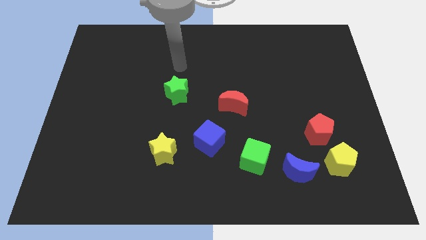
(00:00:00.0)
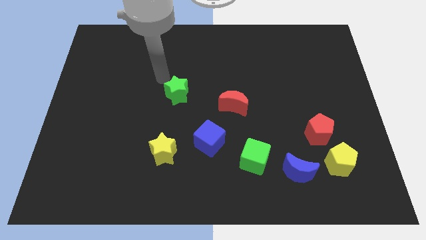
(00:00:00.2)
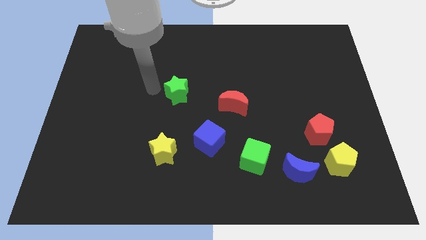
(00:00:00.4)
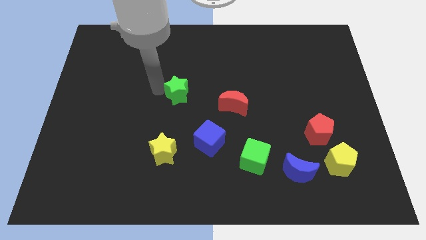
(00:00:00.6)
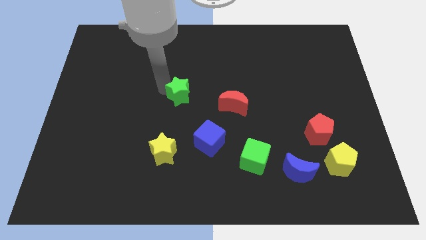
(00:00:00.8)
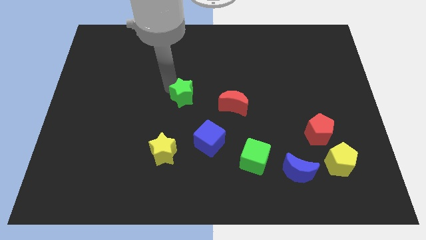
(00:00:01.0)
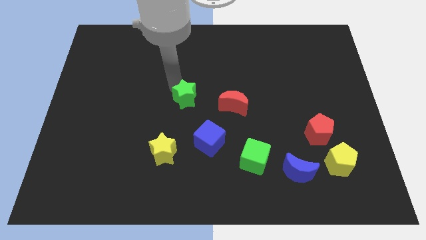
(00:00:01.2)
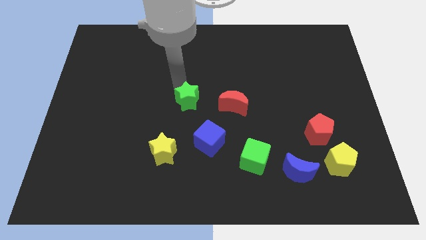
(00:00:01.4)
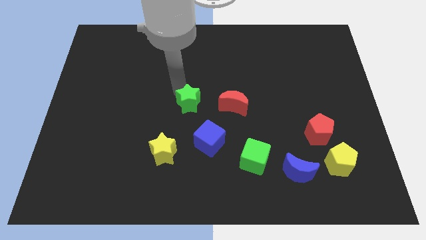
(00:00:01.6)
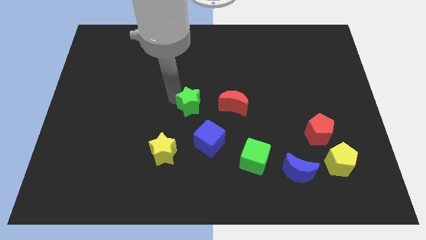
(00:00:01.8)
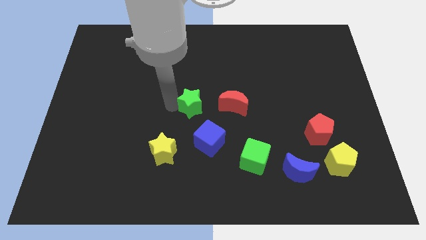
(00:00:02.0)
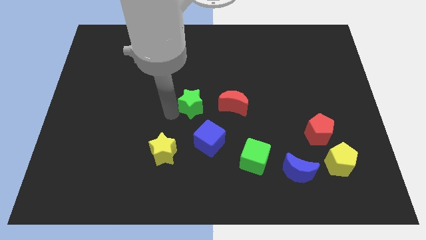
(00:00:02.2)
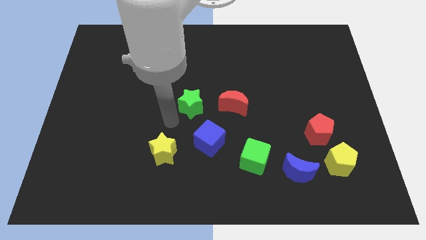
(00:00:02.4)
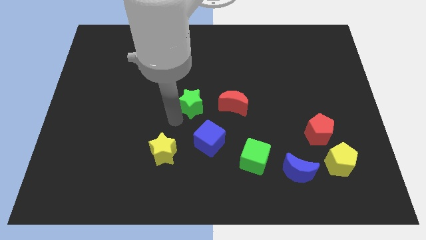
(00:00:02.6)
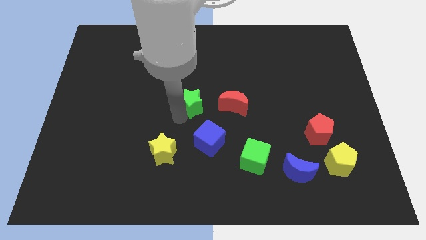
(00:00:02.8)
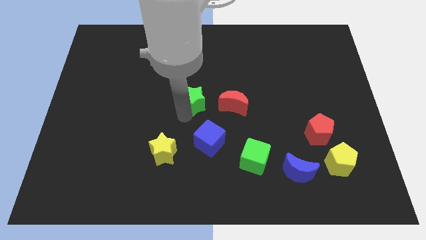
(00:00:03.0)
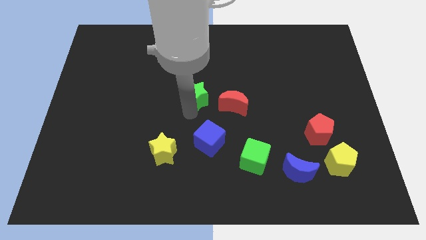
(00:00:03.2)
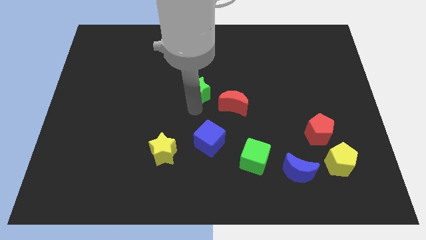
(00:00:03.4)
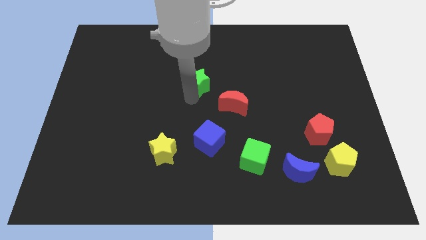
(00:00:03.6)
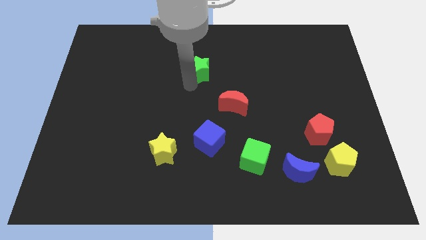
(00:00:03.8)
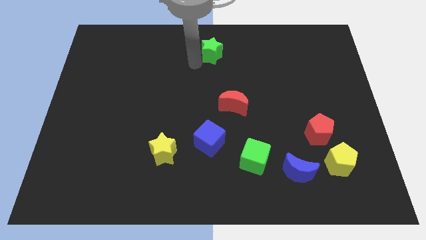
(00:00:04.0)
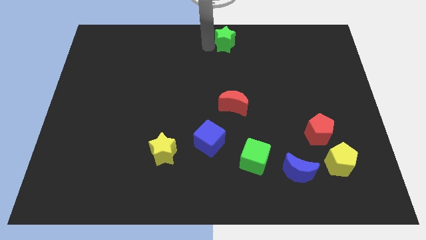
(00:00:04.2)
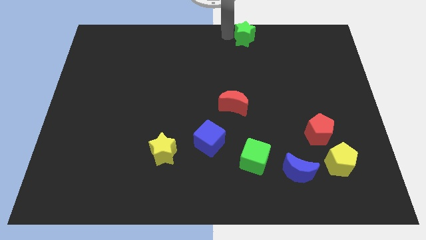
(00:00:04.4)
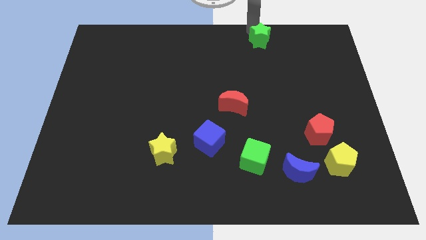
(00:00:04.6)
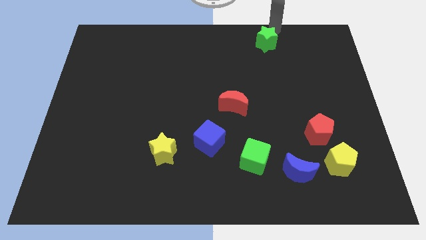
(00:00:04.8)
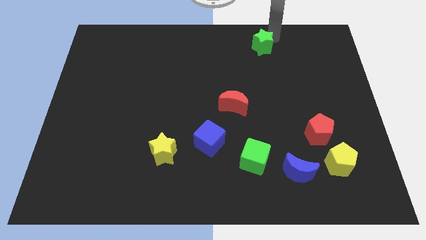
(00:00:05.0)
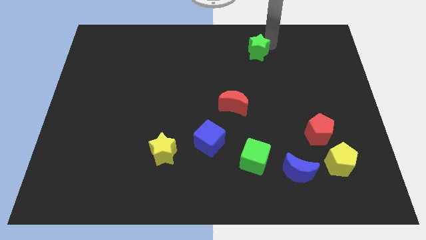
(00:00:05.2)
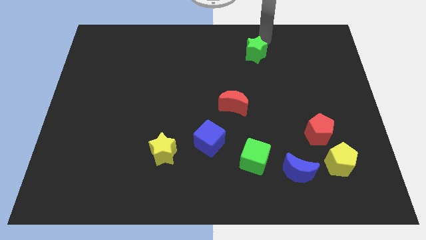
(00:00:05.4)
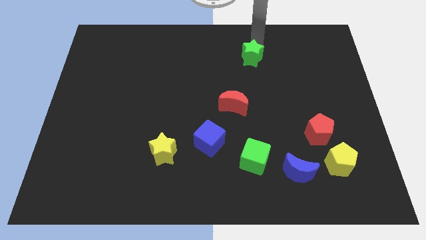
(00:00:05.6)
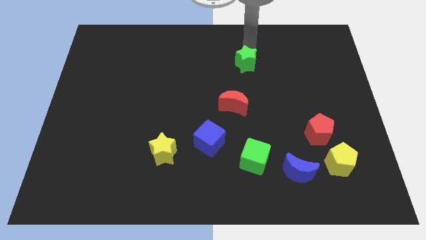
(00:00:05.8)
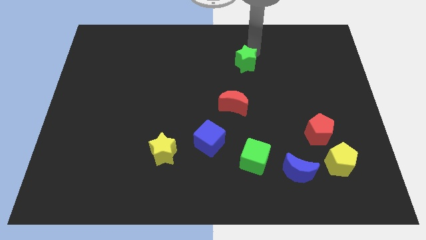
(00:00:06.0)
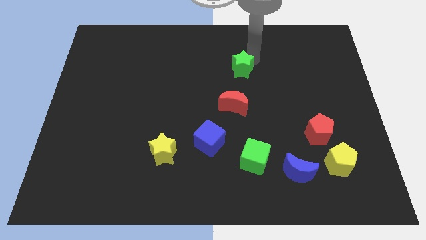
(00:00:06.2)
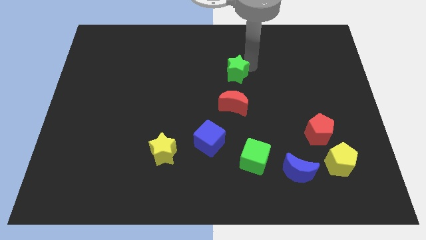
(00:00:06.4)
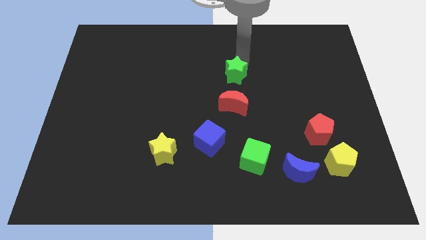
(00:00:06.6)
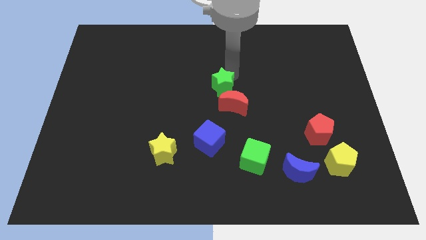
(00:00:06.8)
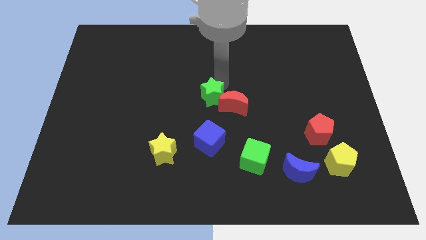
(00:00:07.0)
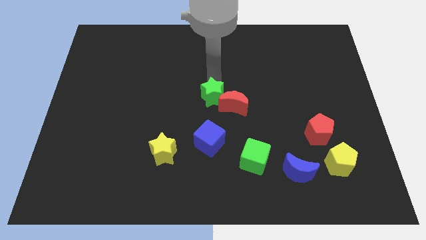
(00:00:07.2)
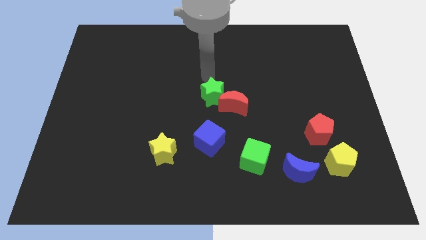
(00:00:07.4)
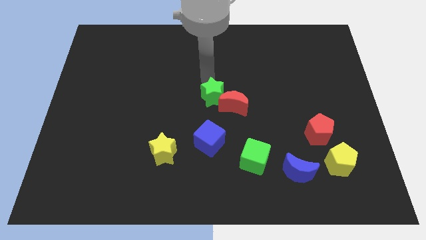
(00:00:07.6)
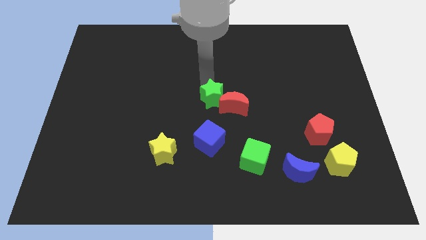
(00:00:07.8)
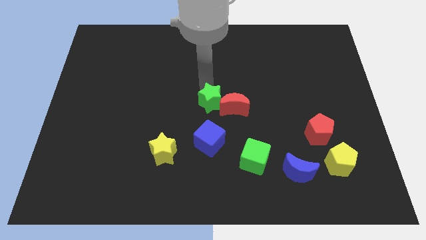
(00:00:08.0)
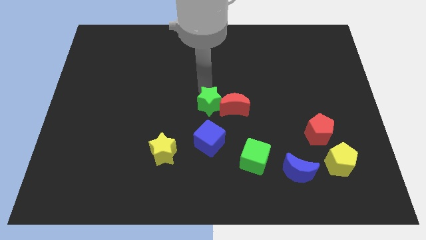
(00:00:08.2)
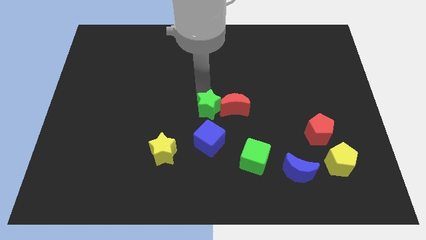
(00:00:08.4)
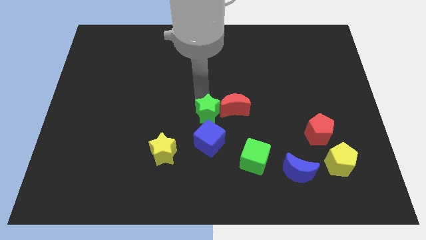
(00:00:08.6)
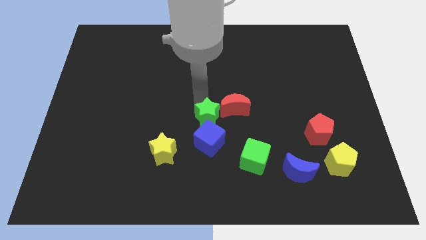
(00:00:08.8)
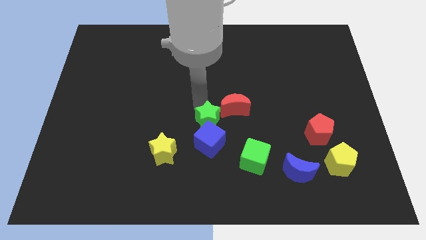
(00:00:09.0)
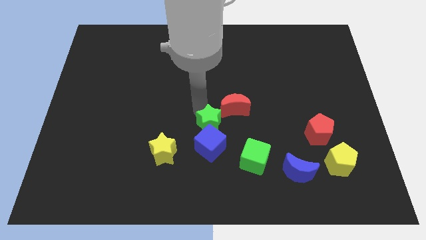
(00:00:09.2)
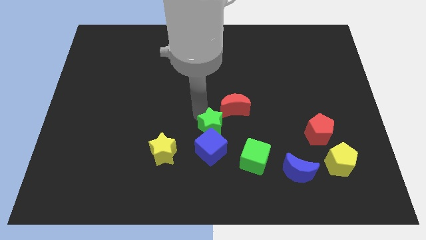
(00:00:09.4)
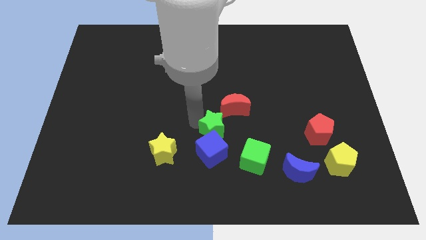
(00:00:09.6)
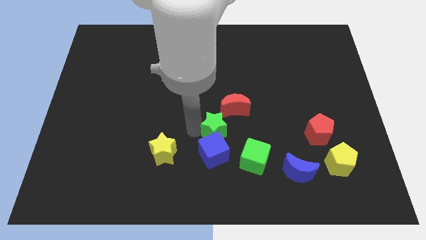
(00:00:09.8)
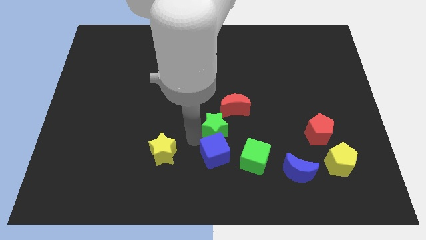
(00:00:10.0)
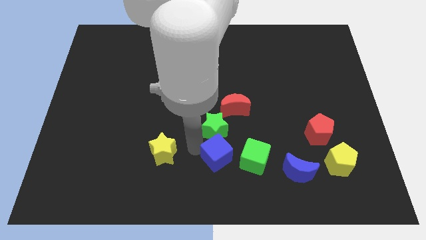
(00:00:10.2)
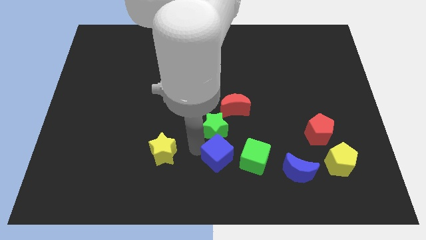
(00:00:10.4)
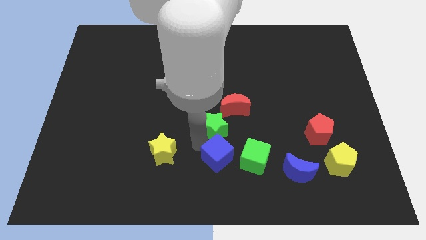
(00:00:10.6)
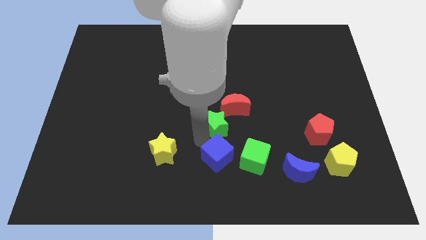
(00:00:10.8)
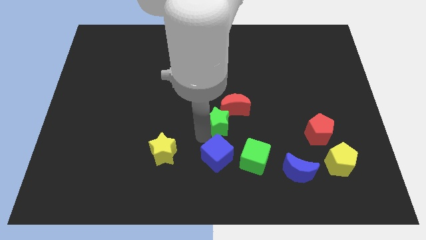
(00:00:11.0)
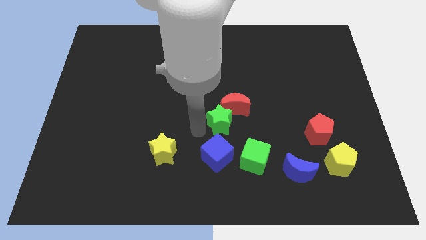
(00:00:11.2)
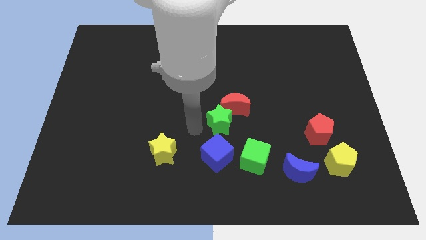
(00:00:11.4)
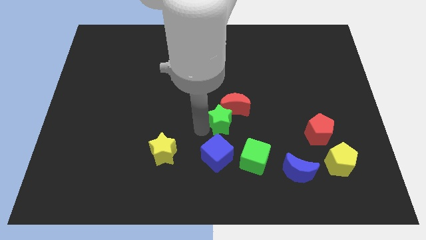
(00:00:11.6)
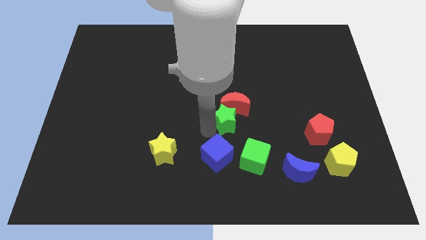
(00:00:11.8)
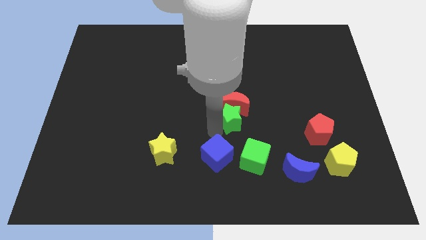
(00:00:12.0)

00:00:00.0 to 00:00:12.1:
push the green star above the green cube

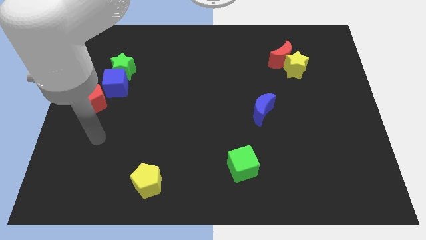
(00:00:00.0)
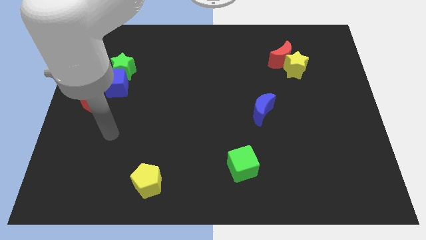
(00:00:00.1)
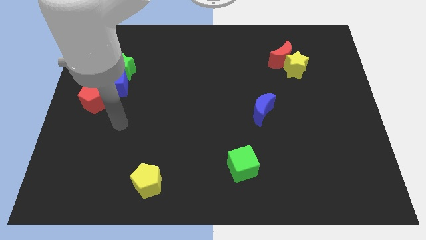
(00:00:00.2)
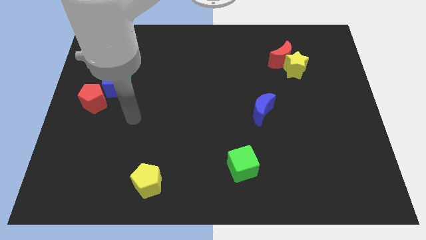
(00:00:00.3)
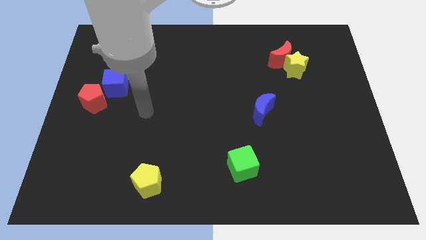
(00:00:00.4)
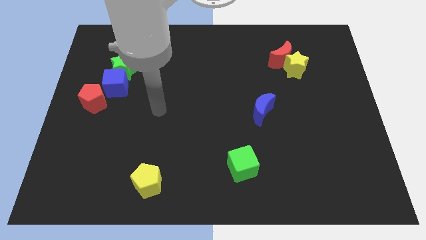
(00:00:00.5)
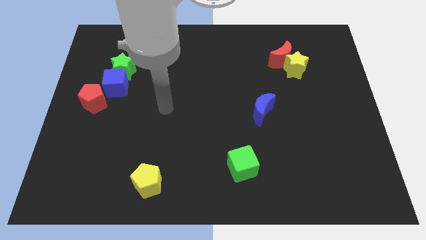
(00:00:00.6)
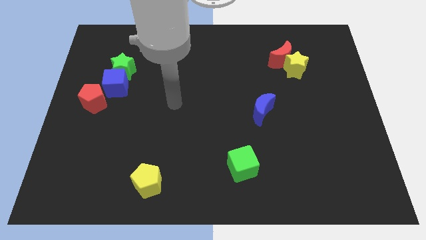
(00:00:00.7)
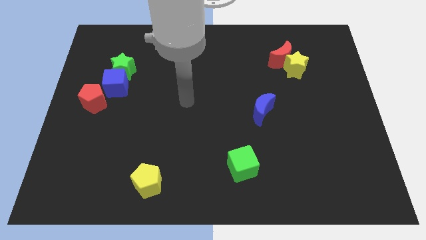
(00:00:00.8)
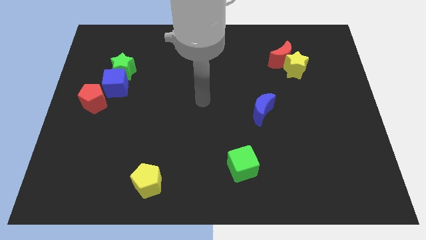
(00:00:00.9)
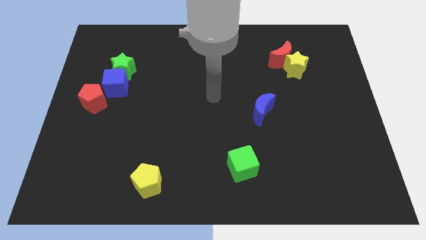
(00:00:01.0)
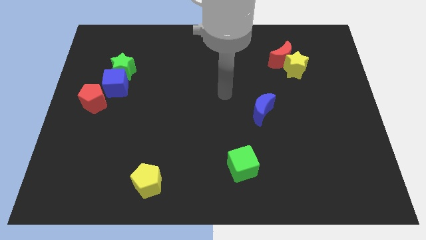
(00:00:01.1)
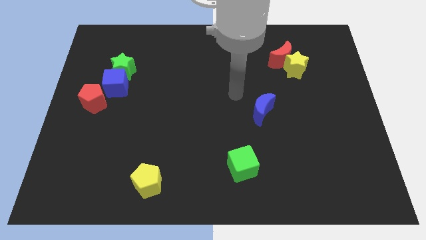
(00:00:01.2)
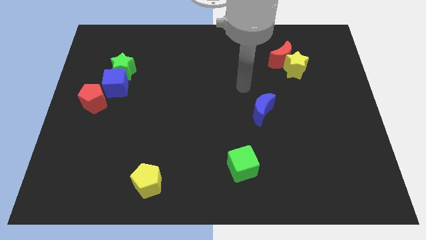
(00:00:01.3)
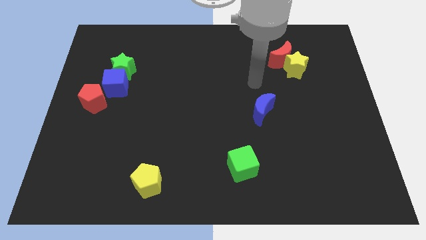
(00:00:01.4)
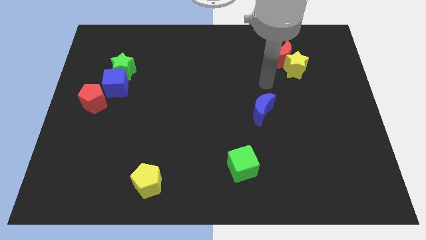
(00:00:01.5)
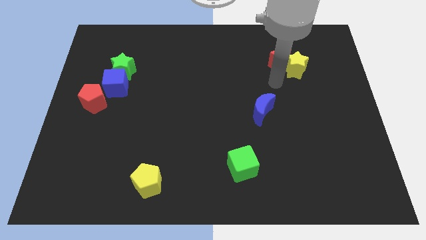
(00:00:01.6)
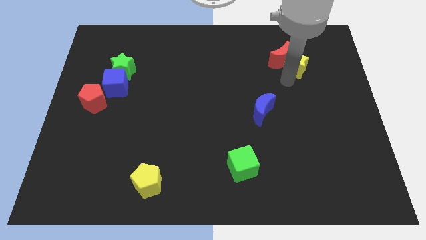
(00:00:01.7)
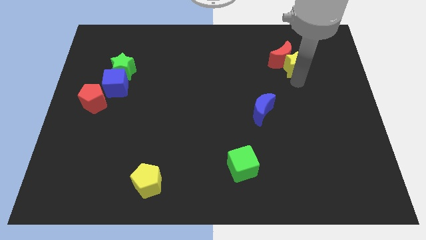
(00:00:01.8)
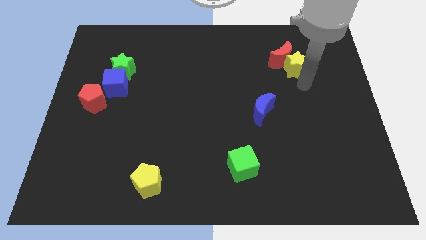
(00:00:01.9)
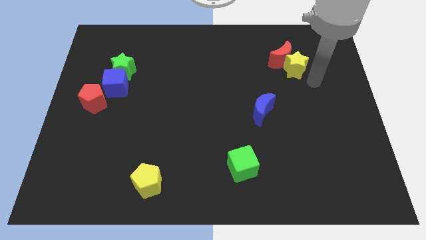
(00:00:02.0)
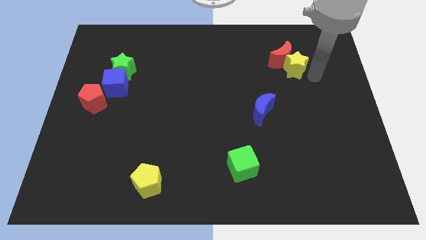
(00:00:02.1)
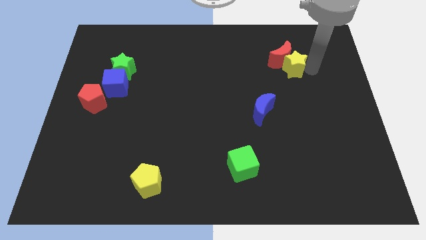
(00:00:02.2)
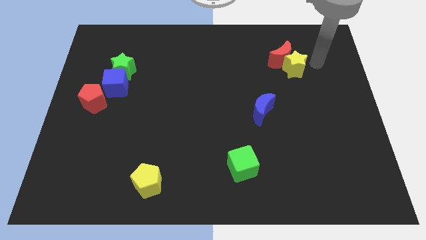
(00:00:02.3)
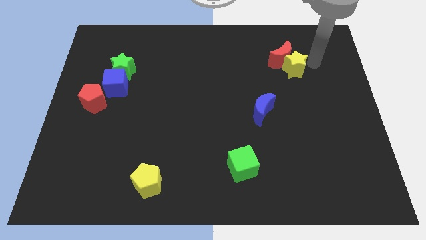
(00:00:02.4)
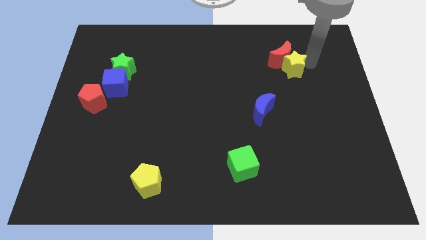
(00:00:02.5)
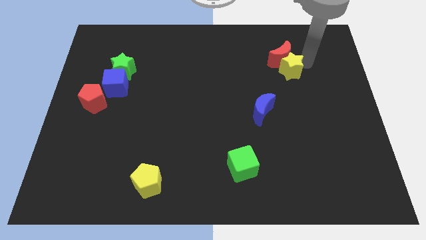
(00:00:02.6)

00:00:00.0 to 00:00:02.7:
slide the yellow star diagonally down and to the left of the red moon

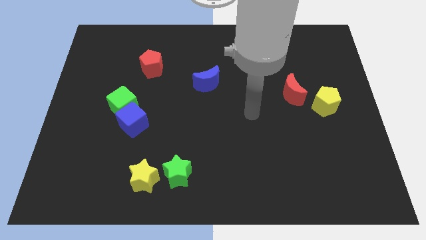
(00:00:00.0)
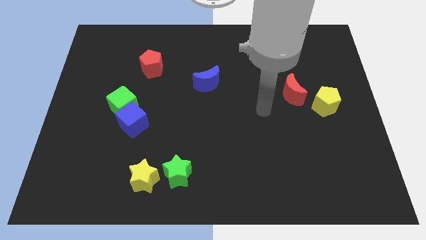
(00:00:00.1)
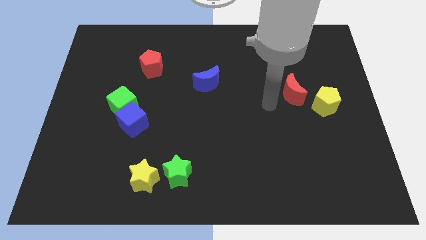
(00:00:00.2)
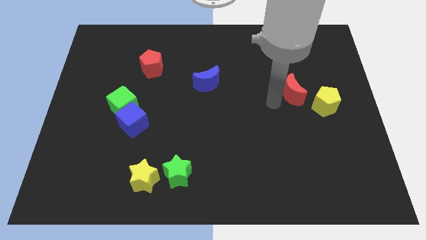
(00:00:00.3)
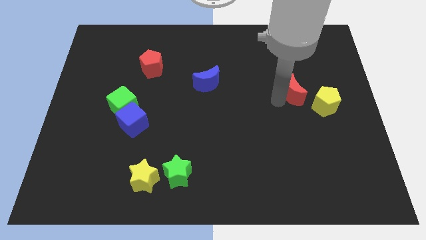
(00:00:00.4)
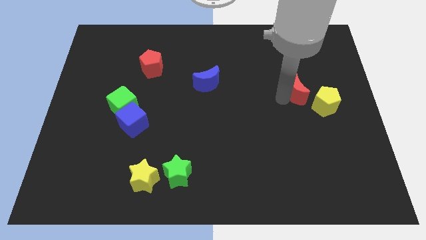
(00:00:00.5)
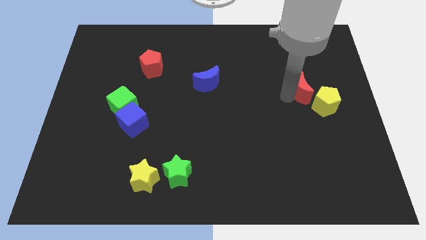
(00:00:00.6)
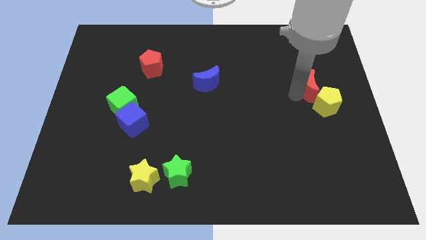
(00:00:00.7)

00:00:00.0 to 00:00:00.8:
put the red moon to the top of the yellow pentagon
